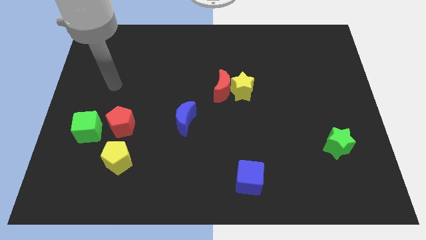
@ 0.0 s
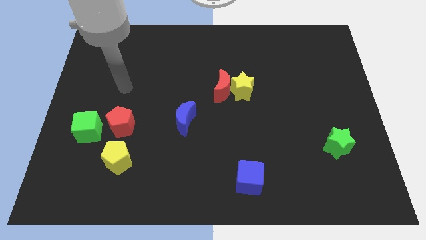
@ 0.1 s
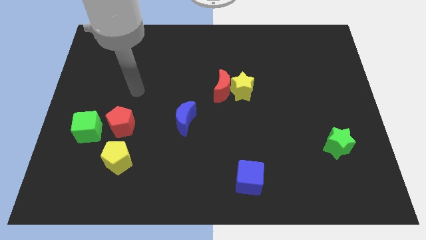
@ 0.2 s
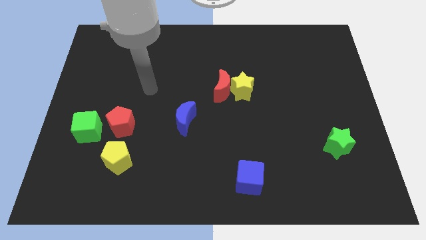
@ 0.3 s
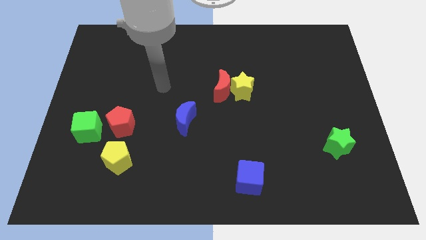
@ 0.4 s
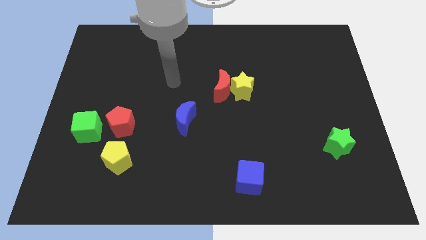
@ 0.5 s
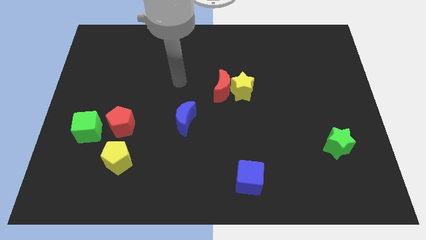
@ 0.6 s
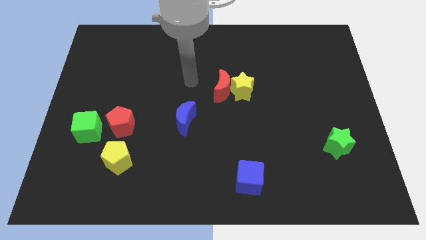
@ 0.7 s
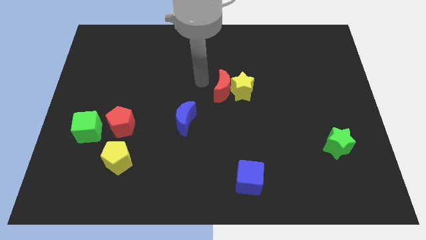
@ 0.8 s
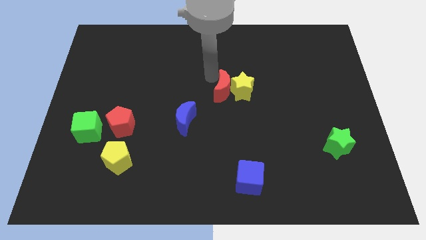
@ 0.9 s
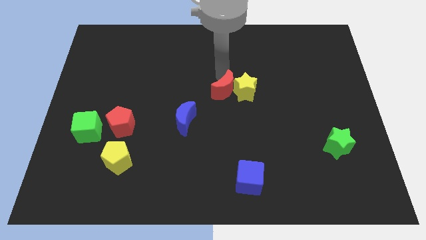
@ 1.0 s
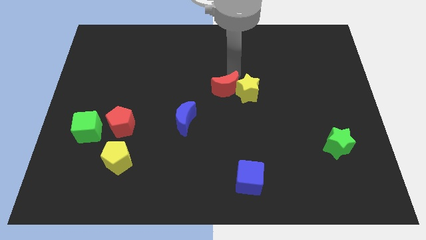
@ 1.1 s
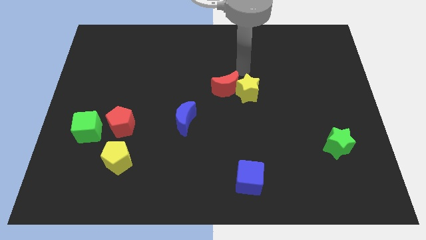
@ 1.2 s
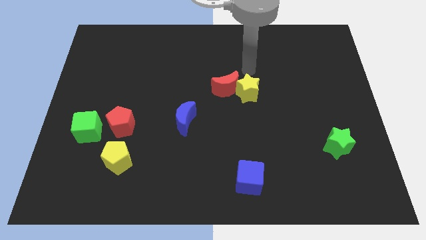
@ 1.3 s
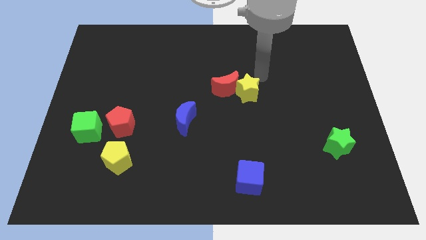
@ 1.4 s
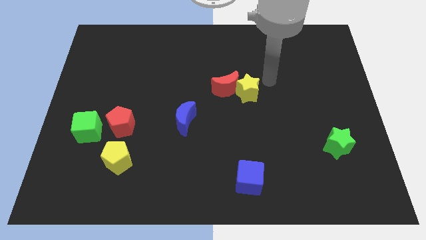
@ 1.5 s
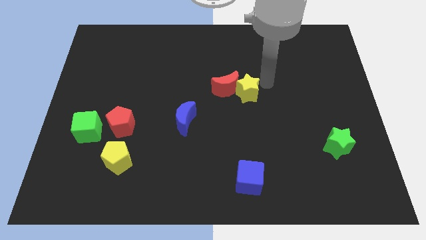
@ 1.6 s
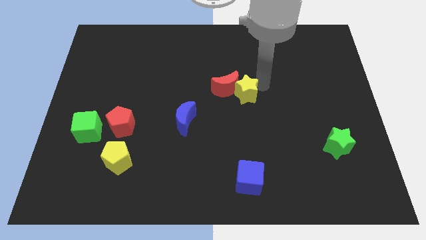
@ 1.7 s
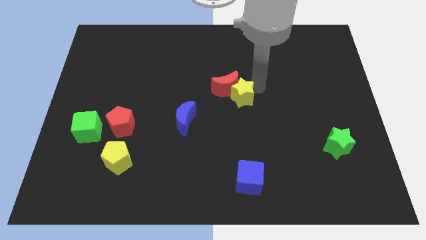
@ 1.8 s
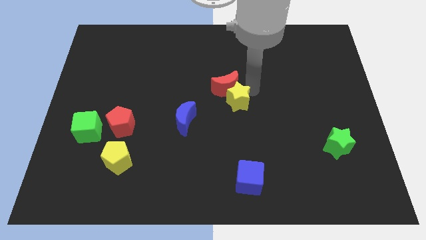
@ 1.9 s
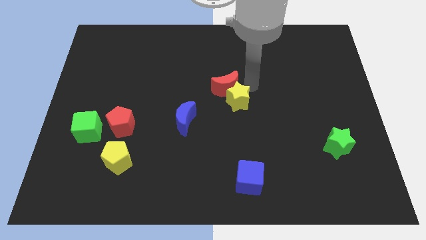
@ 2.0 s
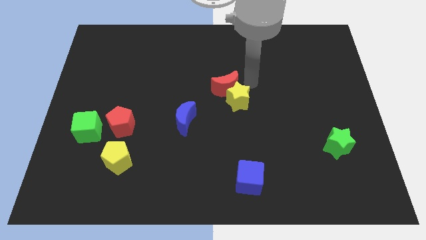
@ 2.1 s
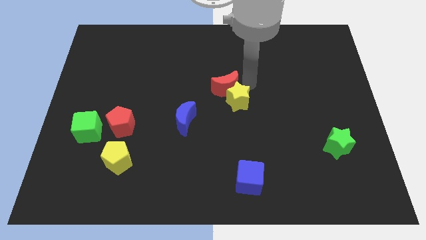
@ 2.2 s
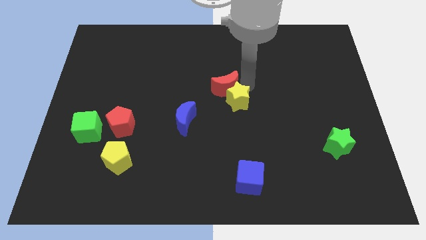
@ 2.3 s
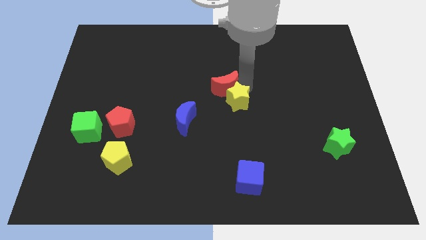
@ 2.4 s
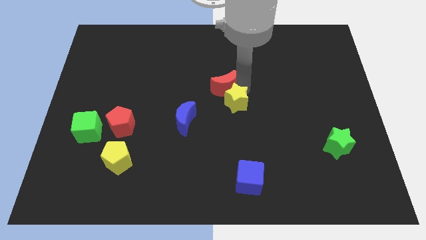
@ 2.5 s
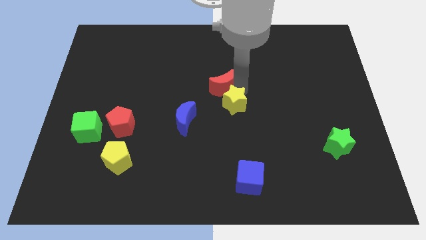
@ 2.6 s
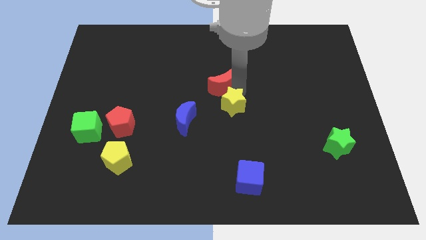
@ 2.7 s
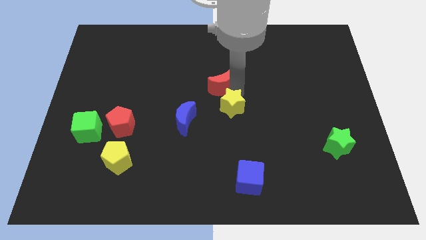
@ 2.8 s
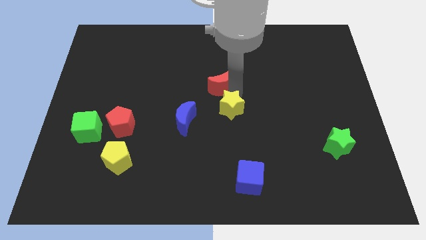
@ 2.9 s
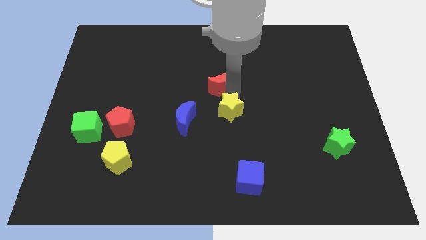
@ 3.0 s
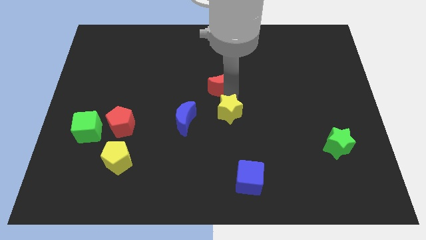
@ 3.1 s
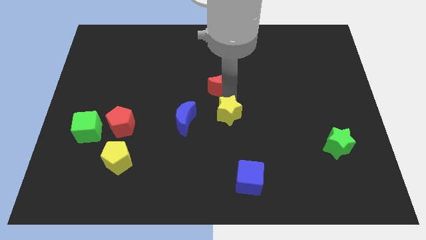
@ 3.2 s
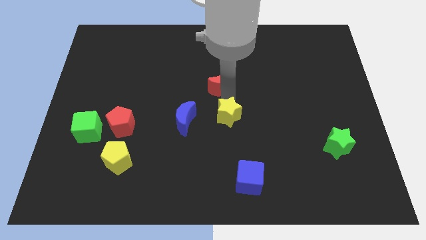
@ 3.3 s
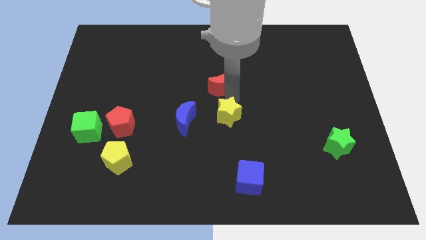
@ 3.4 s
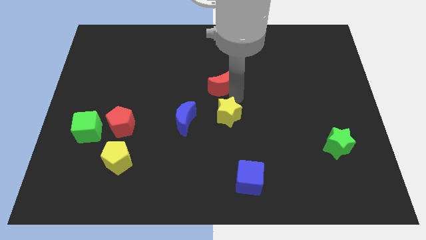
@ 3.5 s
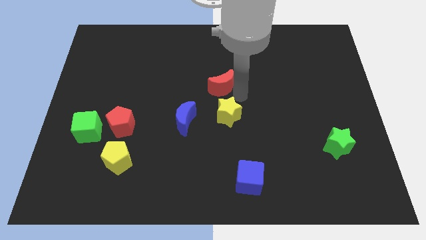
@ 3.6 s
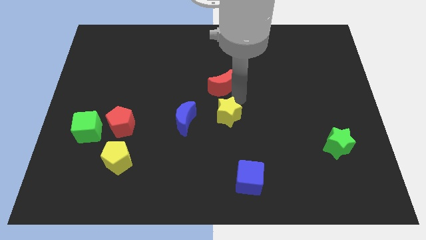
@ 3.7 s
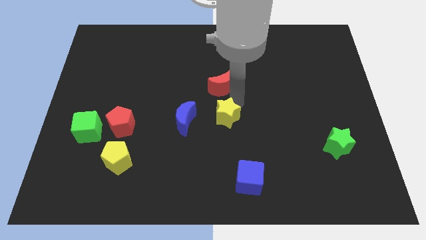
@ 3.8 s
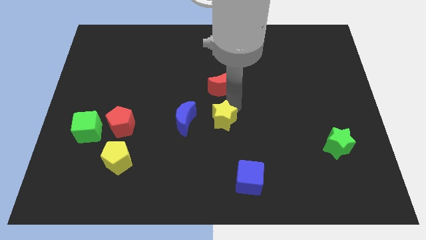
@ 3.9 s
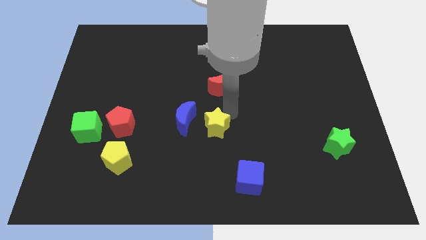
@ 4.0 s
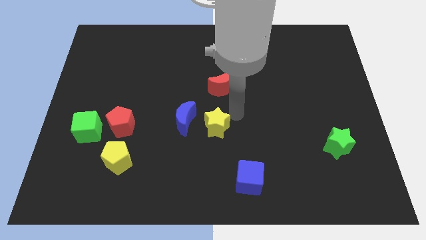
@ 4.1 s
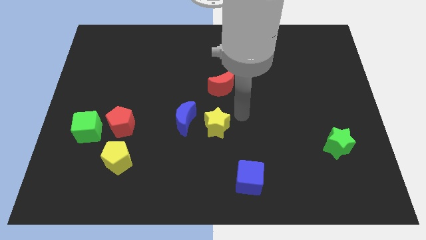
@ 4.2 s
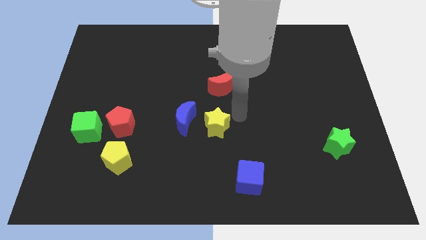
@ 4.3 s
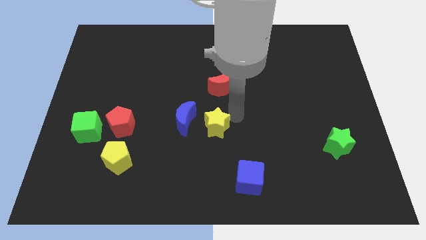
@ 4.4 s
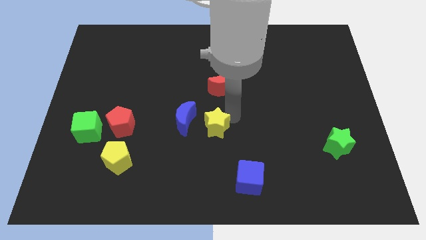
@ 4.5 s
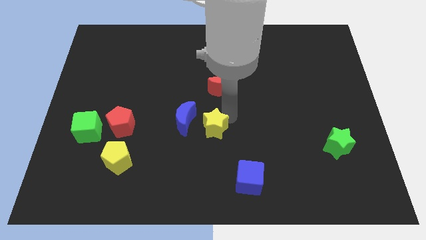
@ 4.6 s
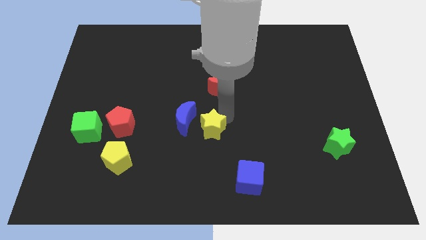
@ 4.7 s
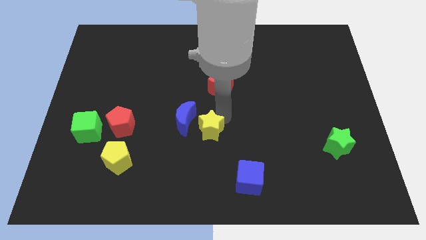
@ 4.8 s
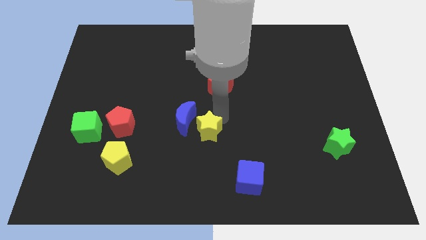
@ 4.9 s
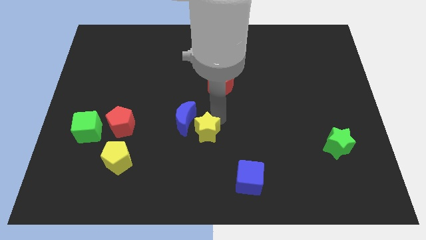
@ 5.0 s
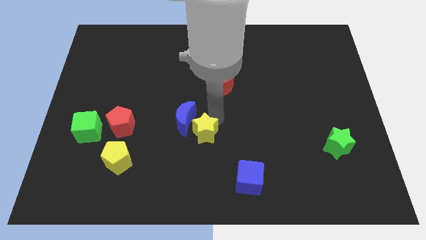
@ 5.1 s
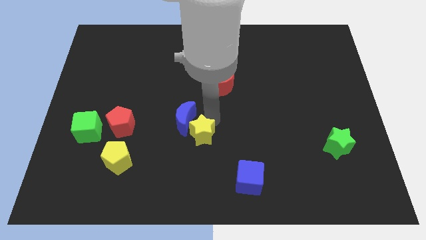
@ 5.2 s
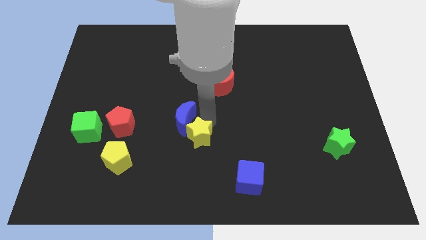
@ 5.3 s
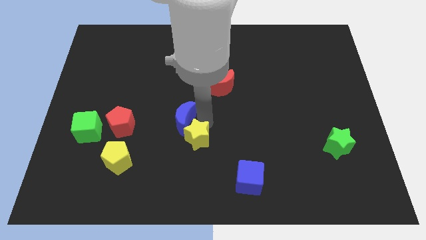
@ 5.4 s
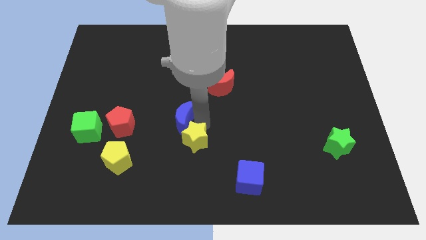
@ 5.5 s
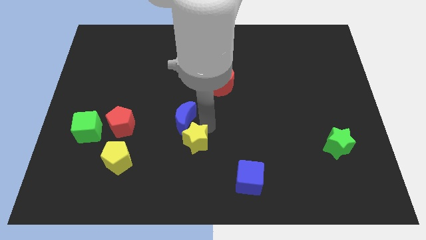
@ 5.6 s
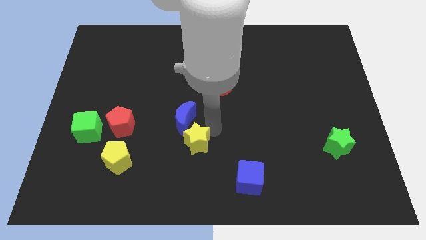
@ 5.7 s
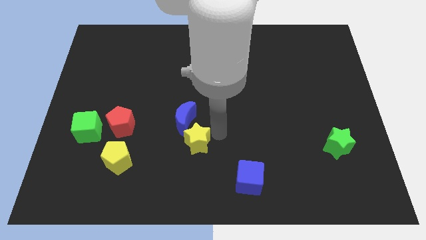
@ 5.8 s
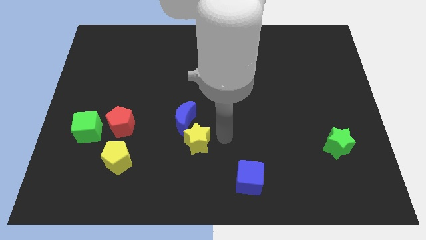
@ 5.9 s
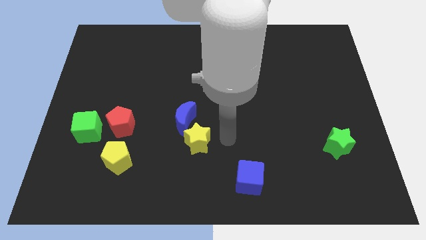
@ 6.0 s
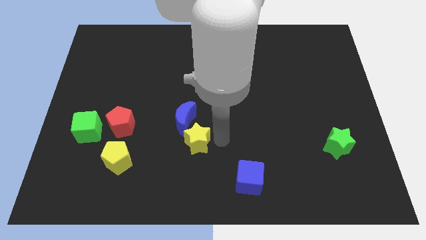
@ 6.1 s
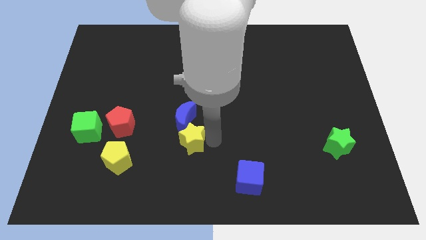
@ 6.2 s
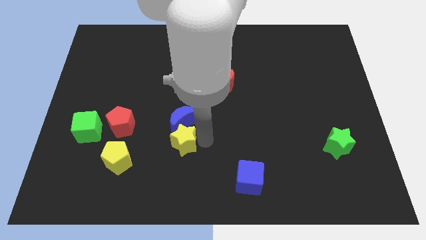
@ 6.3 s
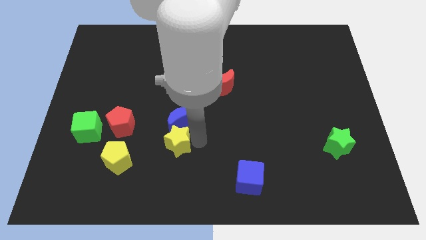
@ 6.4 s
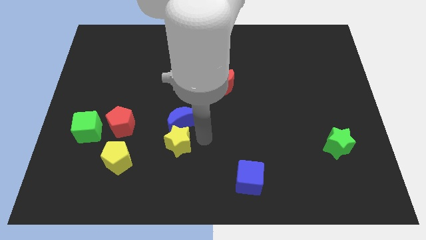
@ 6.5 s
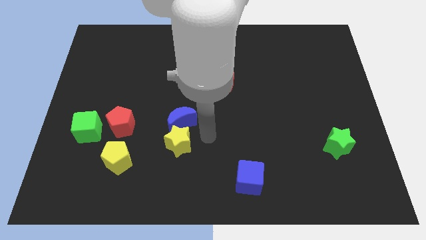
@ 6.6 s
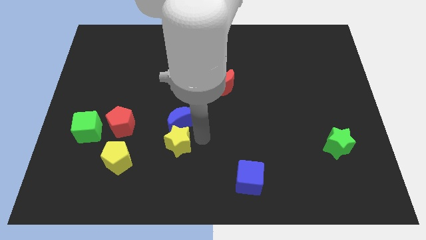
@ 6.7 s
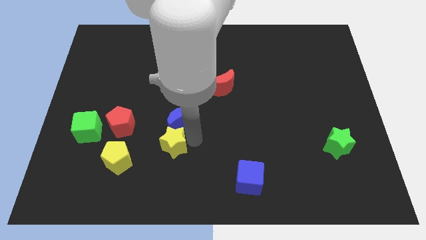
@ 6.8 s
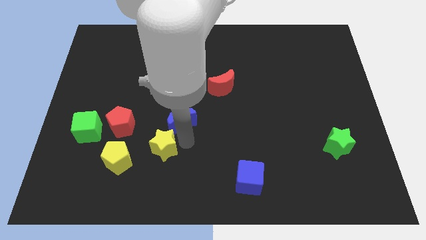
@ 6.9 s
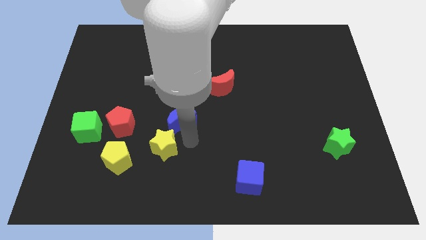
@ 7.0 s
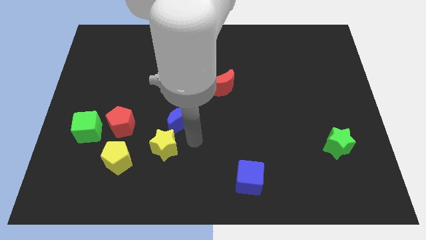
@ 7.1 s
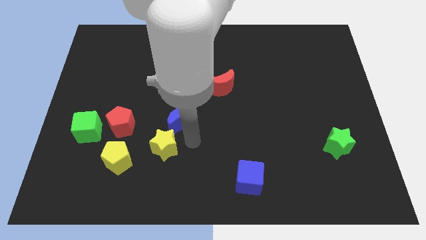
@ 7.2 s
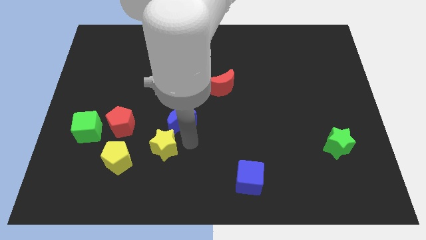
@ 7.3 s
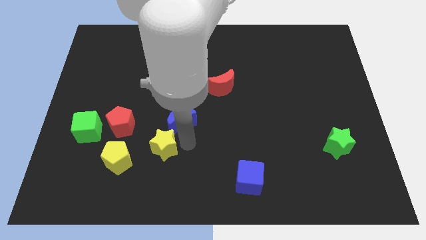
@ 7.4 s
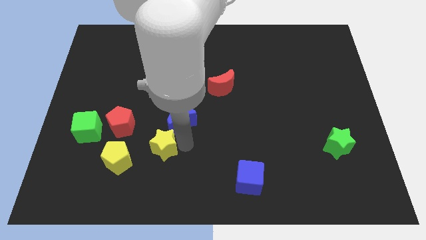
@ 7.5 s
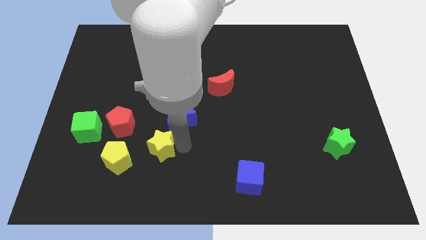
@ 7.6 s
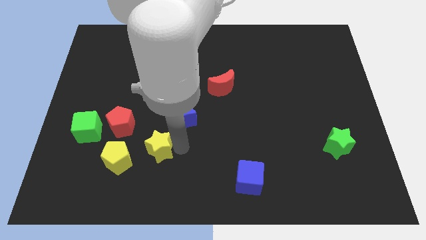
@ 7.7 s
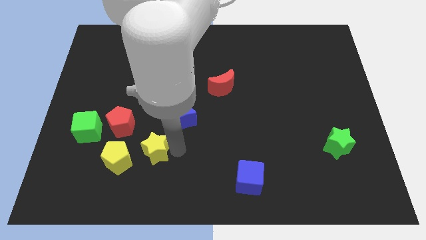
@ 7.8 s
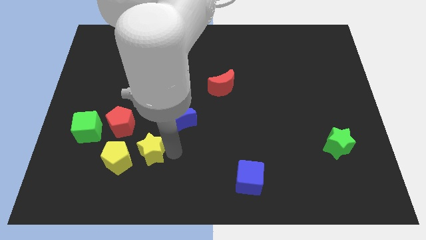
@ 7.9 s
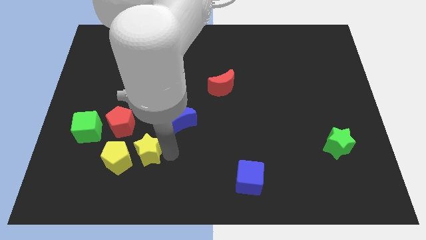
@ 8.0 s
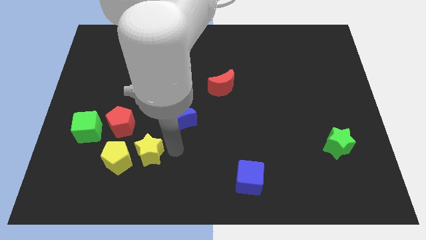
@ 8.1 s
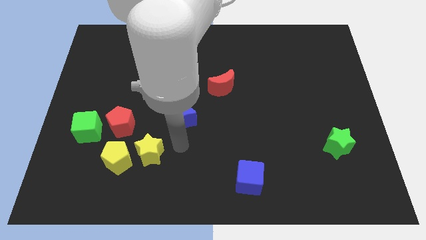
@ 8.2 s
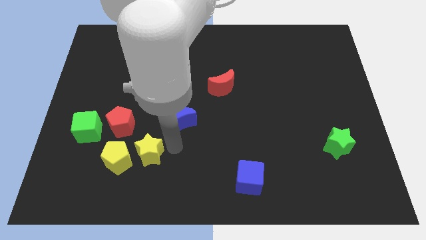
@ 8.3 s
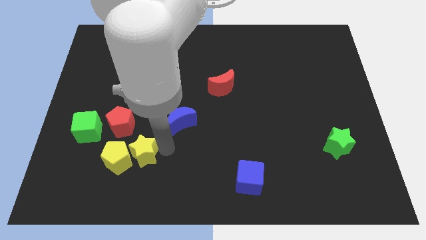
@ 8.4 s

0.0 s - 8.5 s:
move the yellow star close to the yellow pentagon
